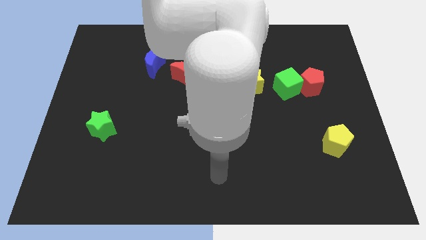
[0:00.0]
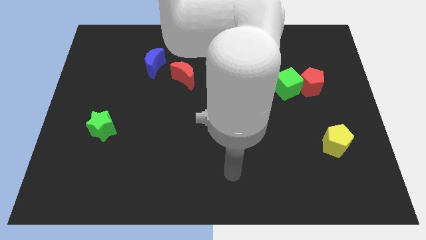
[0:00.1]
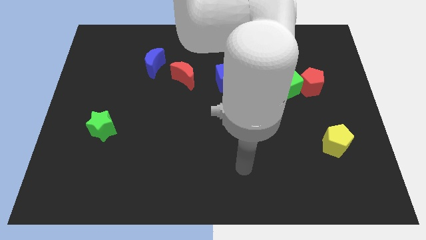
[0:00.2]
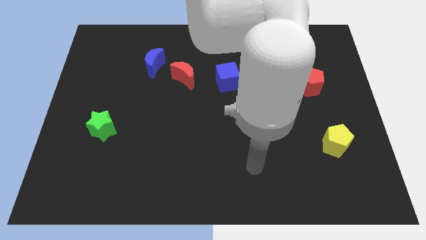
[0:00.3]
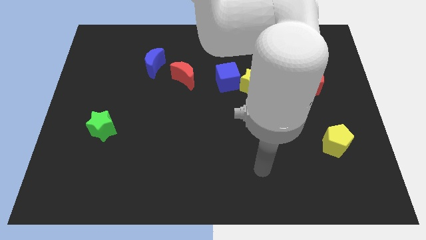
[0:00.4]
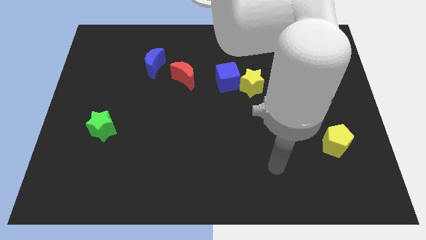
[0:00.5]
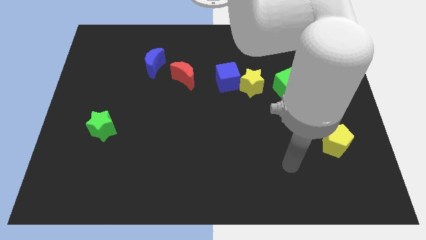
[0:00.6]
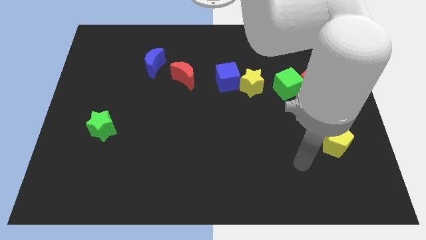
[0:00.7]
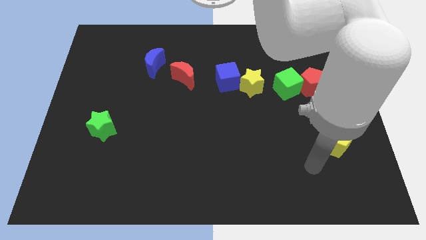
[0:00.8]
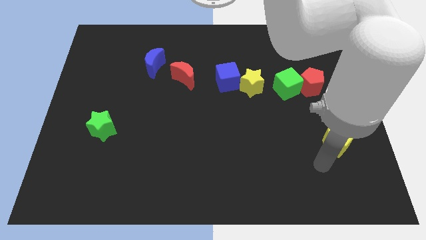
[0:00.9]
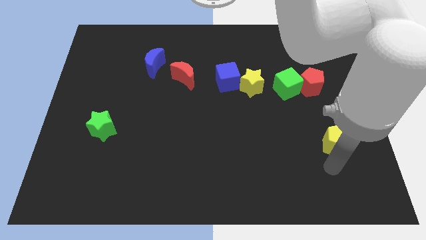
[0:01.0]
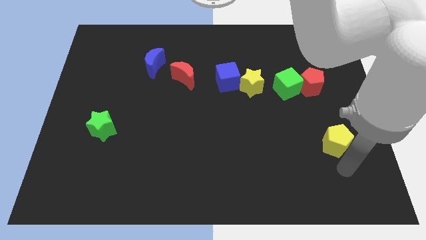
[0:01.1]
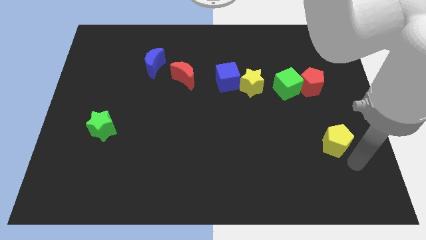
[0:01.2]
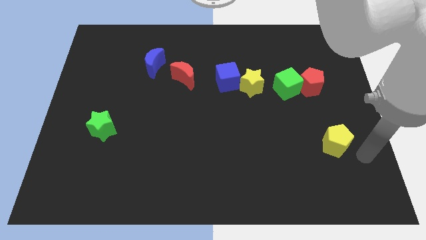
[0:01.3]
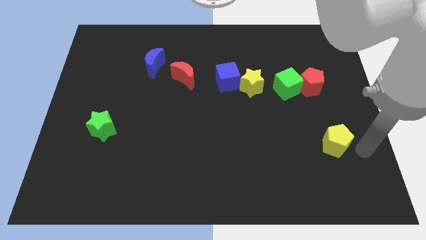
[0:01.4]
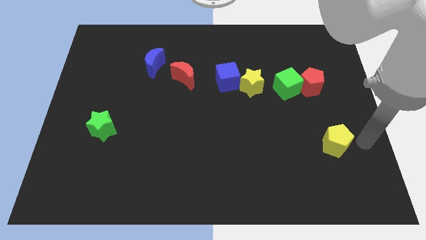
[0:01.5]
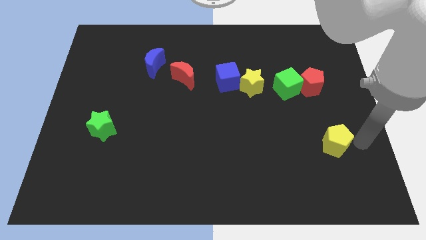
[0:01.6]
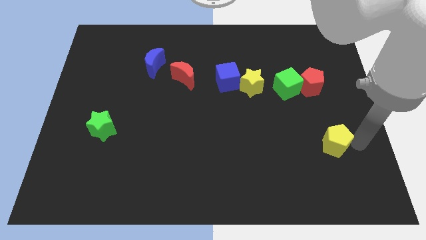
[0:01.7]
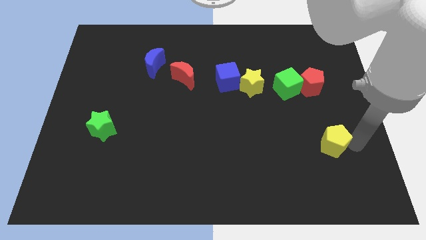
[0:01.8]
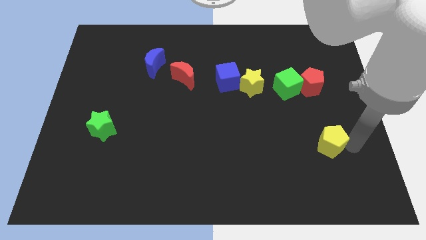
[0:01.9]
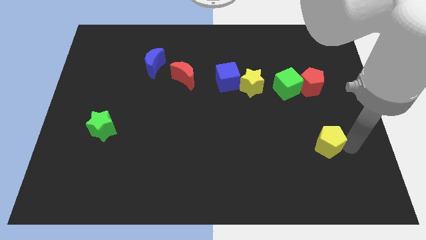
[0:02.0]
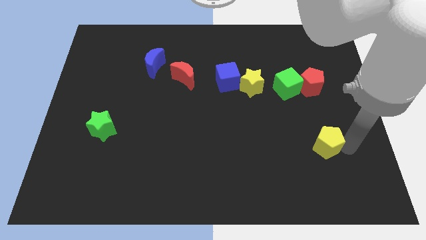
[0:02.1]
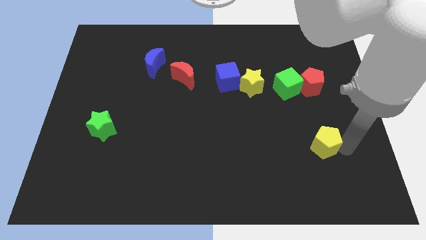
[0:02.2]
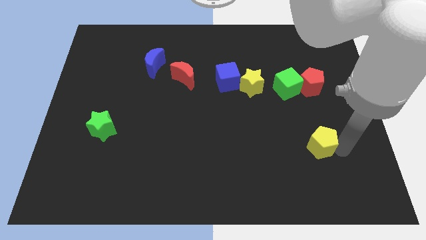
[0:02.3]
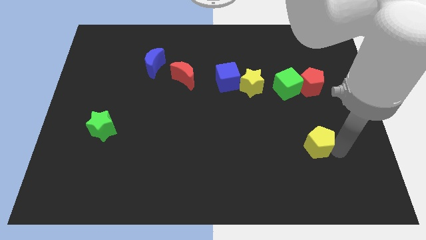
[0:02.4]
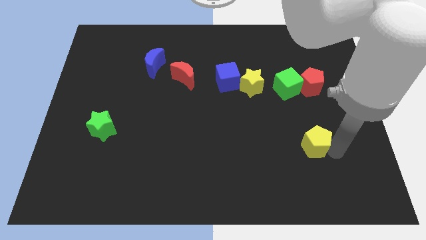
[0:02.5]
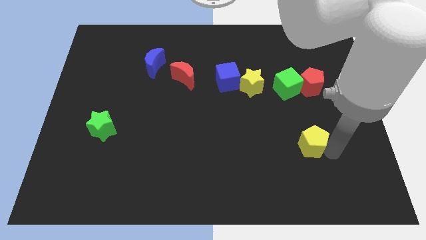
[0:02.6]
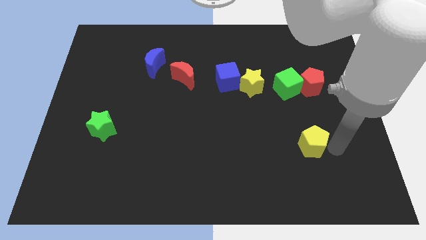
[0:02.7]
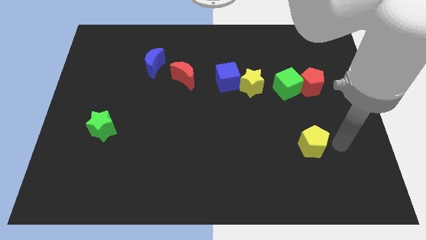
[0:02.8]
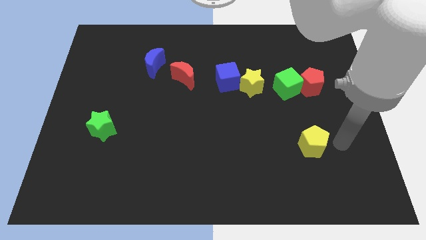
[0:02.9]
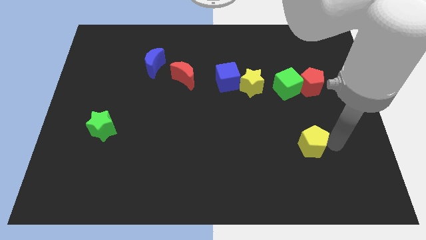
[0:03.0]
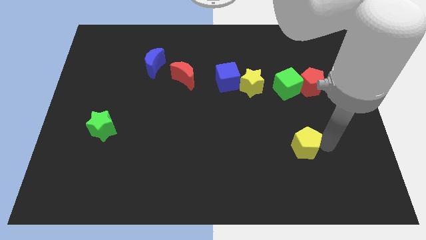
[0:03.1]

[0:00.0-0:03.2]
slightly push the yellow pentagon to the left

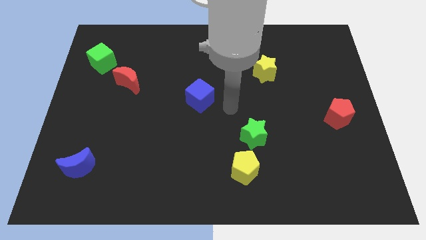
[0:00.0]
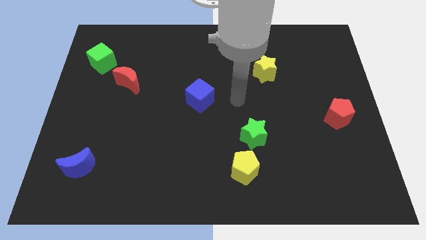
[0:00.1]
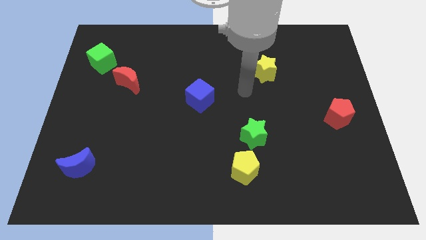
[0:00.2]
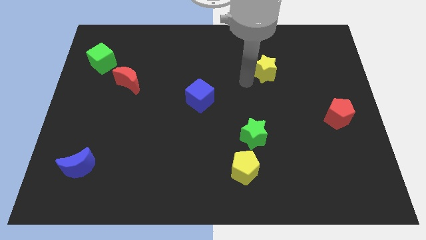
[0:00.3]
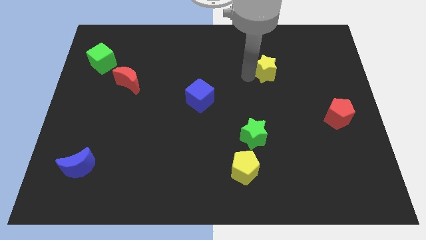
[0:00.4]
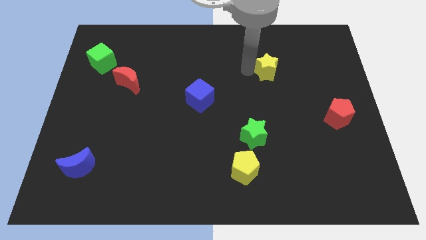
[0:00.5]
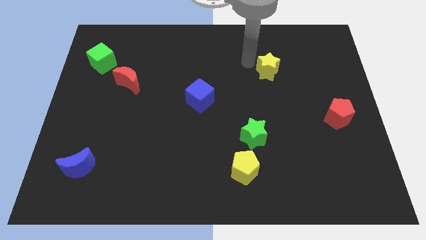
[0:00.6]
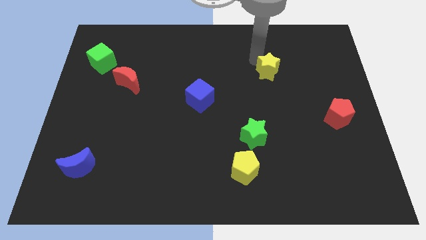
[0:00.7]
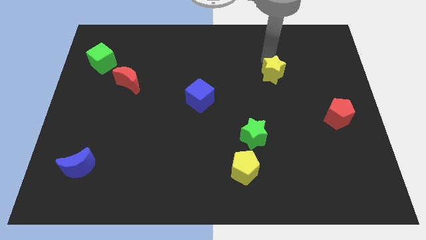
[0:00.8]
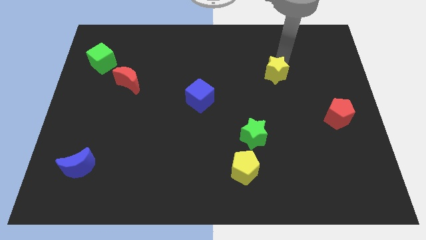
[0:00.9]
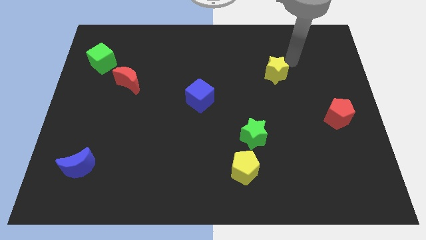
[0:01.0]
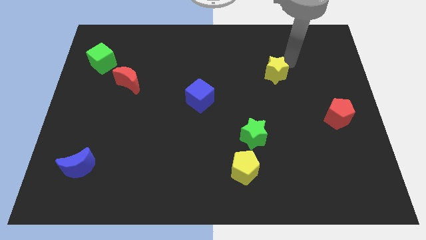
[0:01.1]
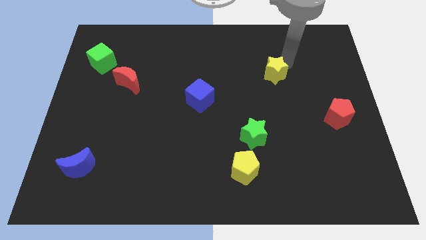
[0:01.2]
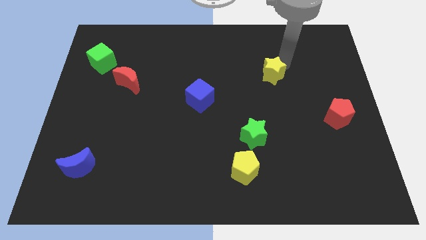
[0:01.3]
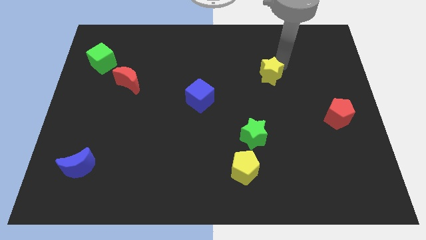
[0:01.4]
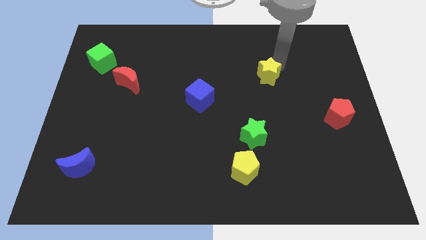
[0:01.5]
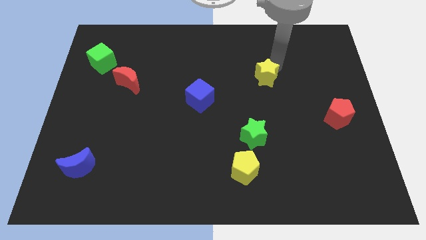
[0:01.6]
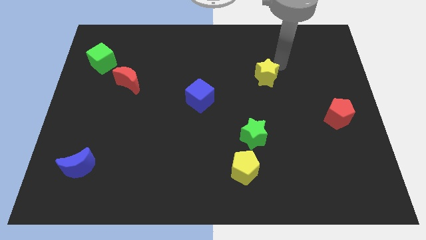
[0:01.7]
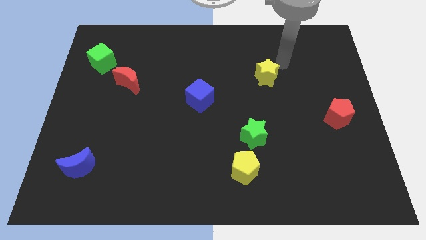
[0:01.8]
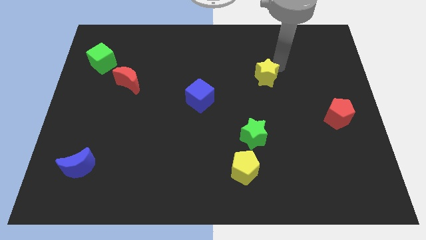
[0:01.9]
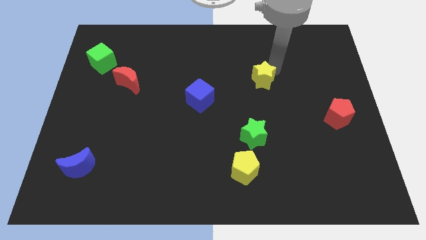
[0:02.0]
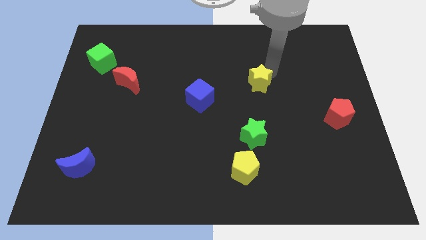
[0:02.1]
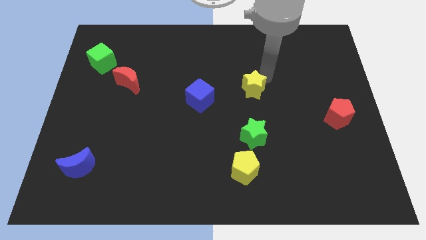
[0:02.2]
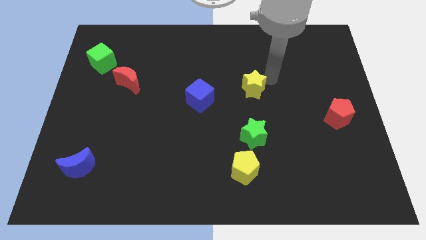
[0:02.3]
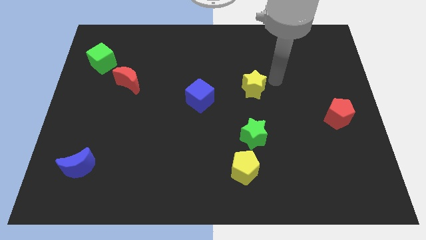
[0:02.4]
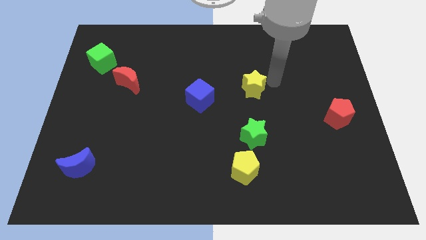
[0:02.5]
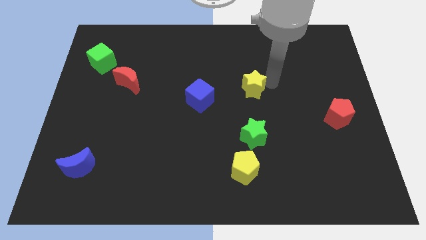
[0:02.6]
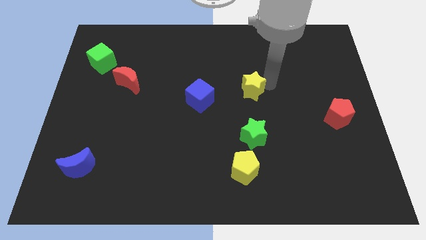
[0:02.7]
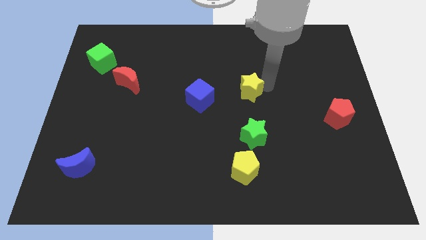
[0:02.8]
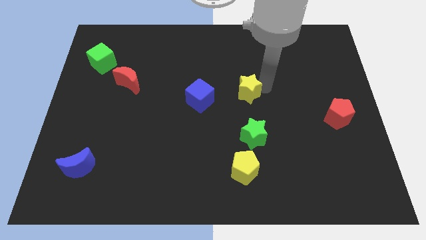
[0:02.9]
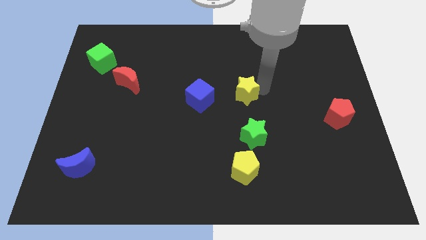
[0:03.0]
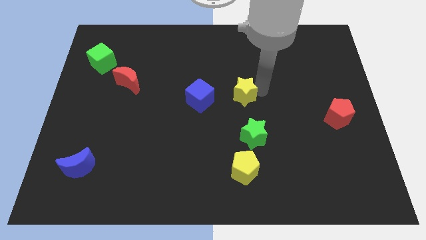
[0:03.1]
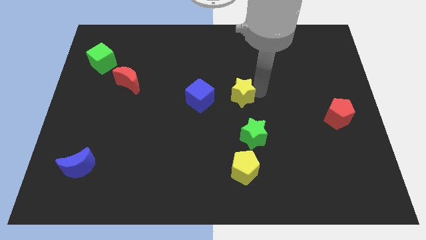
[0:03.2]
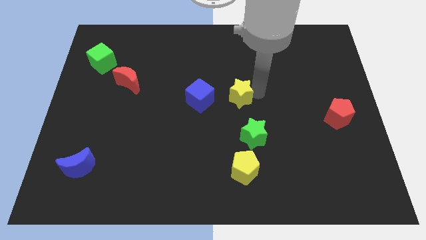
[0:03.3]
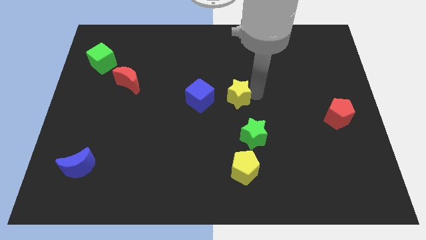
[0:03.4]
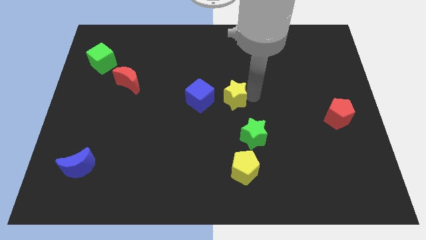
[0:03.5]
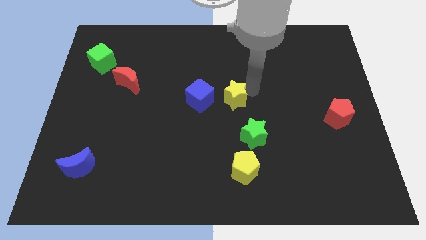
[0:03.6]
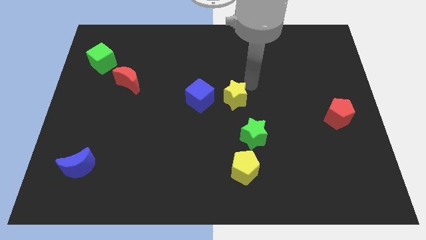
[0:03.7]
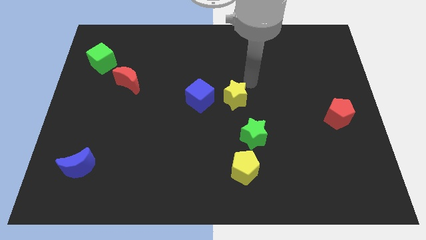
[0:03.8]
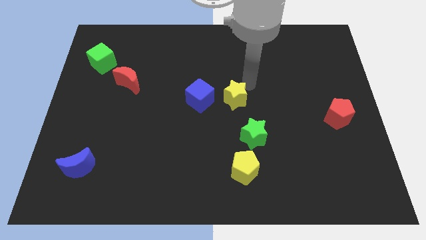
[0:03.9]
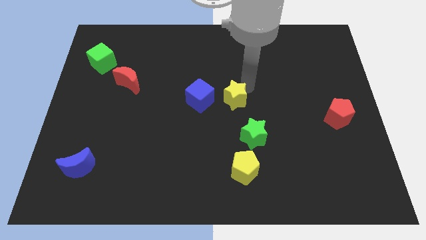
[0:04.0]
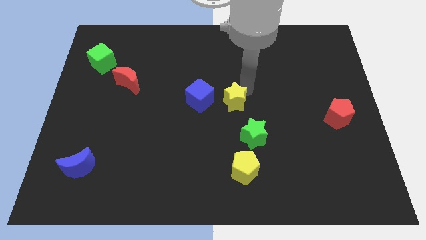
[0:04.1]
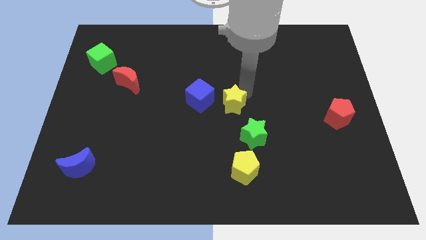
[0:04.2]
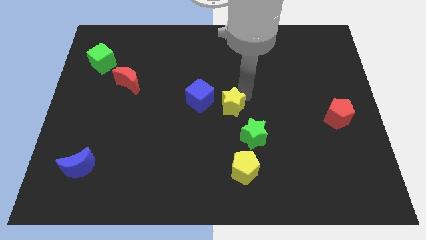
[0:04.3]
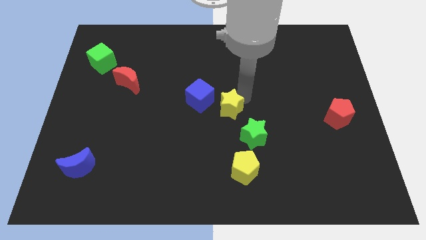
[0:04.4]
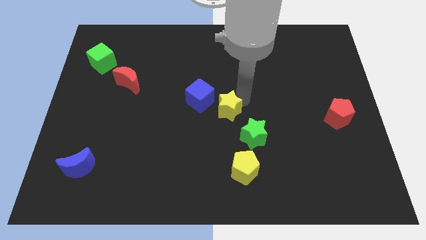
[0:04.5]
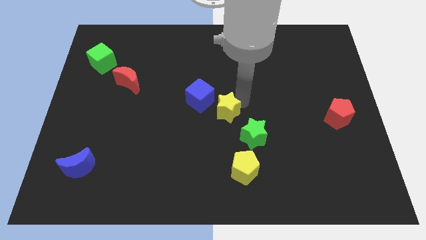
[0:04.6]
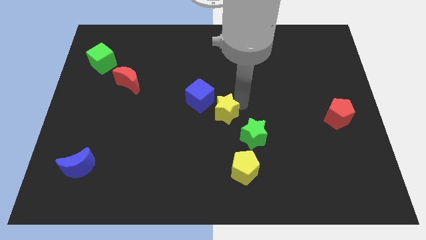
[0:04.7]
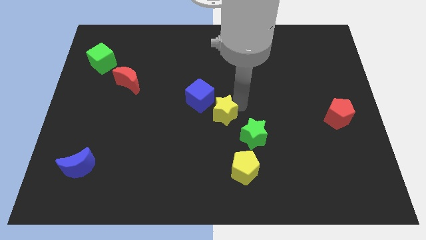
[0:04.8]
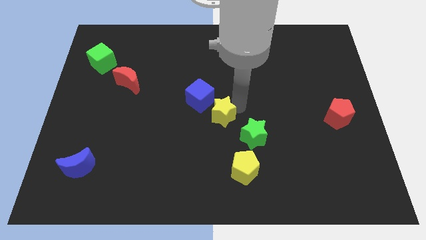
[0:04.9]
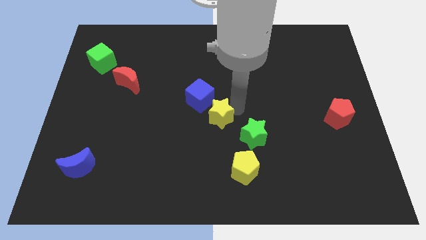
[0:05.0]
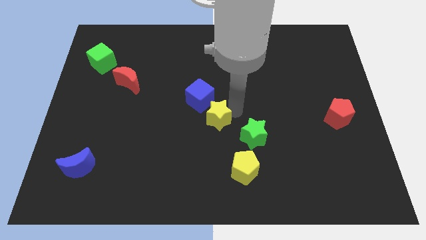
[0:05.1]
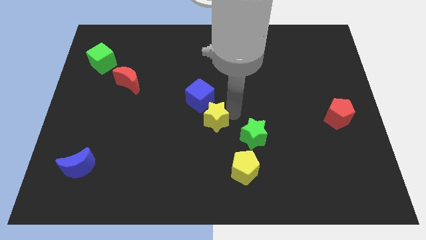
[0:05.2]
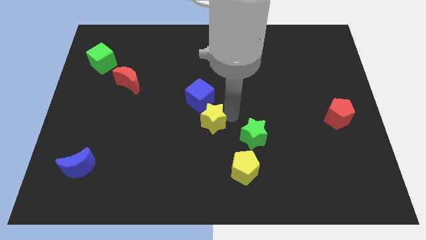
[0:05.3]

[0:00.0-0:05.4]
slide the yellow star downwards and left
